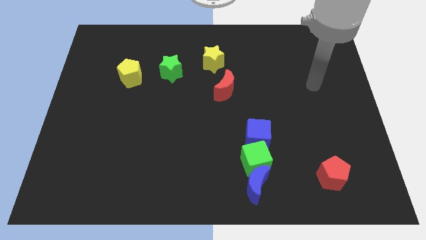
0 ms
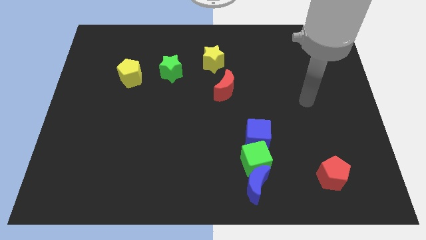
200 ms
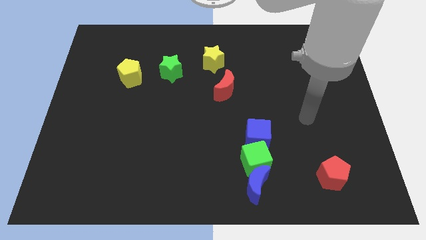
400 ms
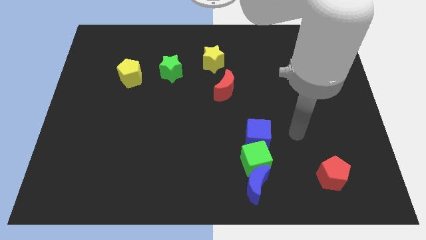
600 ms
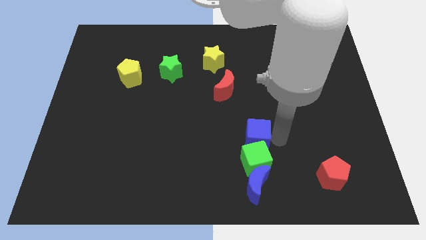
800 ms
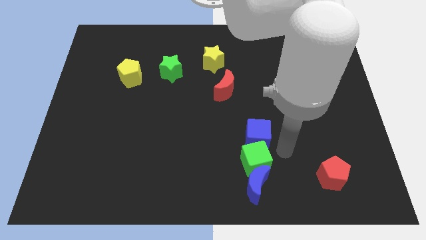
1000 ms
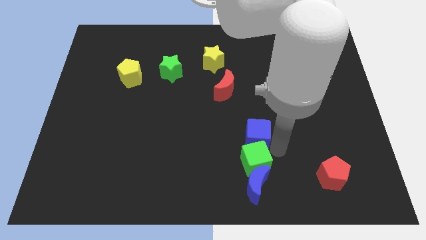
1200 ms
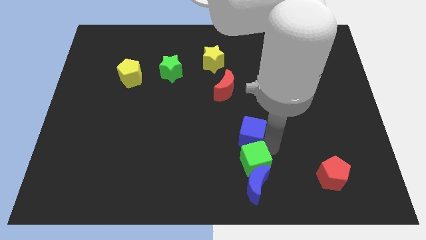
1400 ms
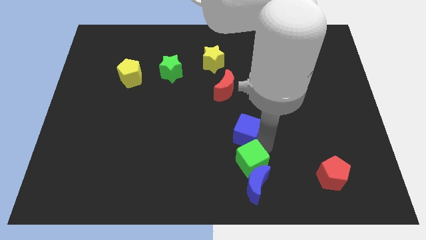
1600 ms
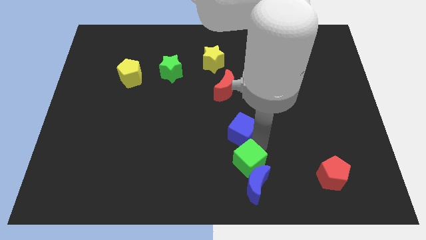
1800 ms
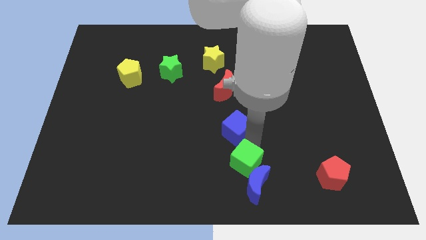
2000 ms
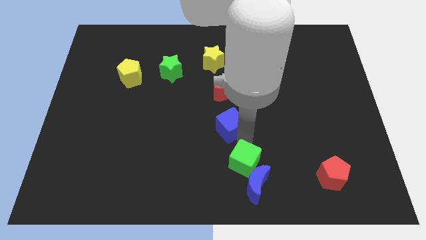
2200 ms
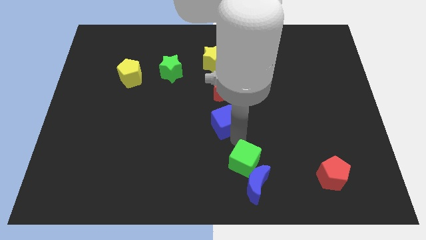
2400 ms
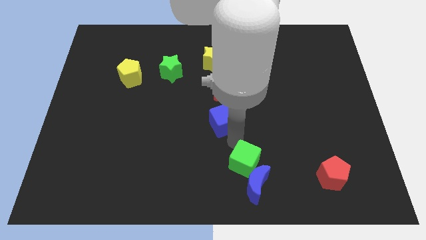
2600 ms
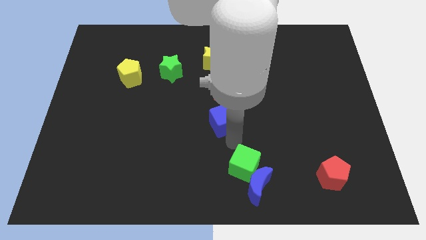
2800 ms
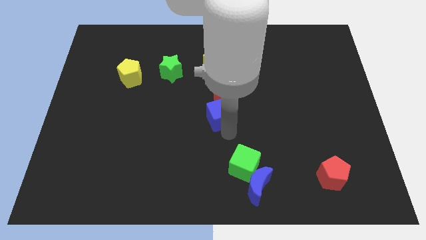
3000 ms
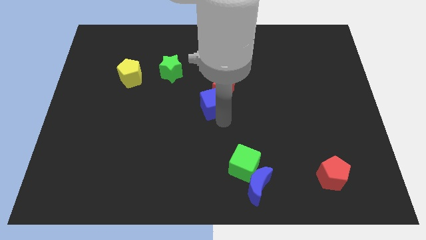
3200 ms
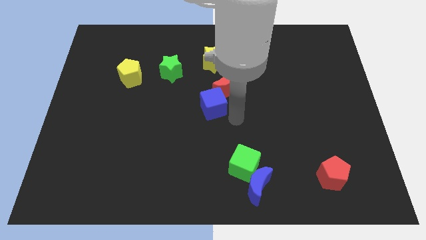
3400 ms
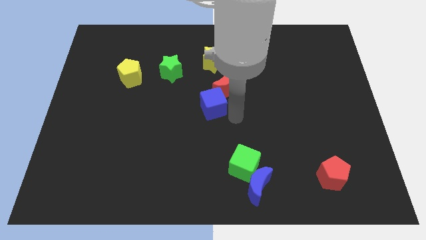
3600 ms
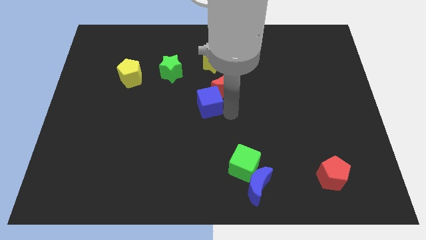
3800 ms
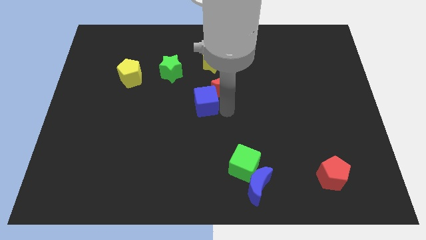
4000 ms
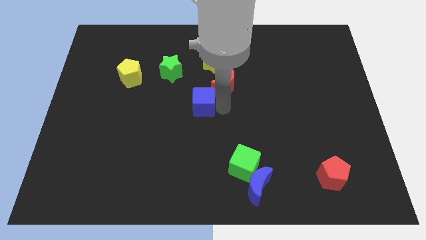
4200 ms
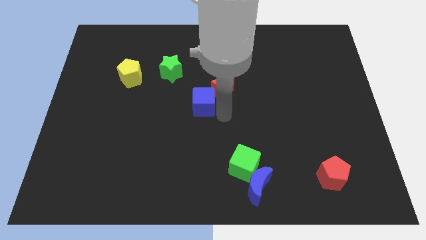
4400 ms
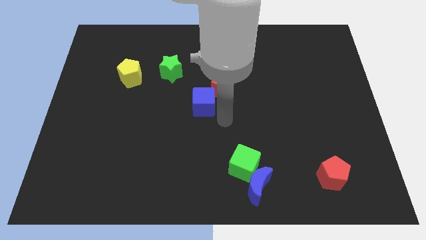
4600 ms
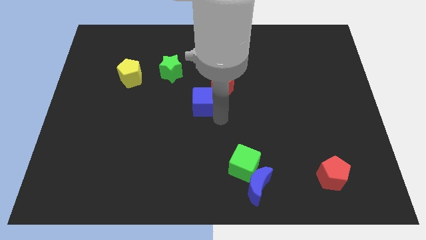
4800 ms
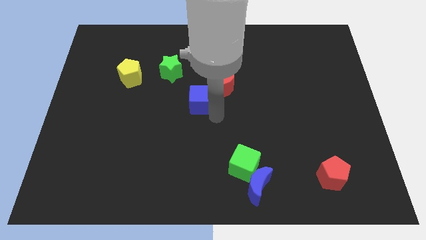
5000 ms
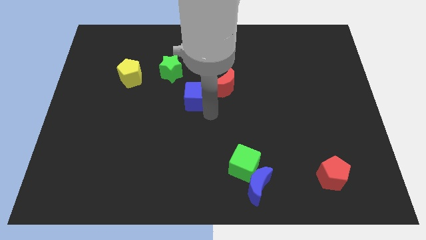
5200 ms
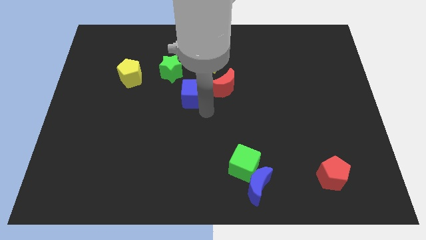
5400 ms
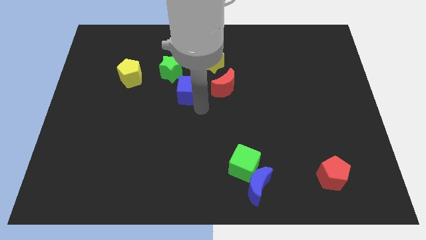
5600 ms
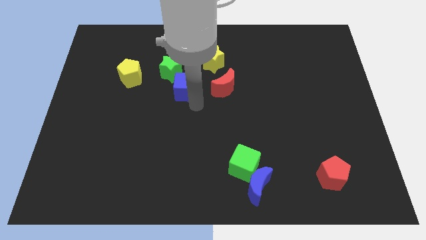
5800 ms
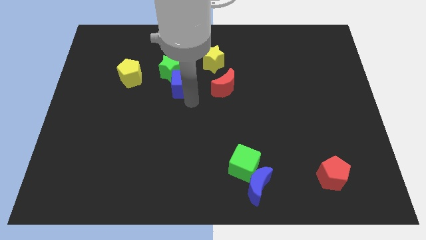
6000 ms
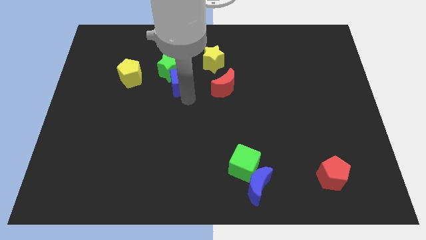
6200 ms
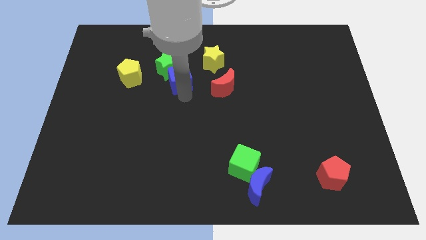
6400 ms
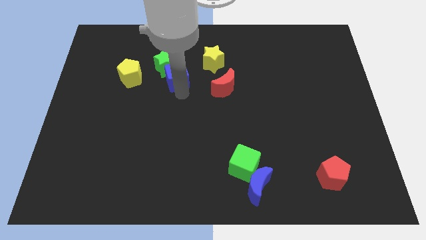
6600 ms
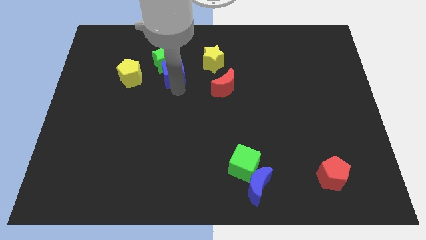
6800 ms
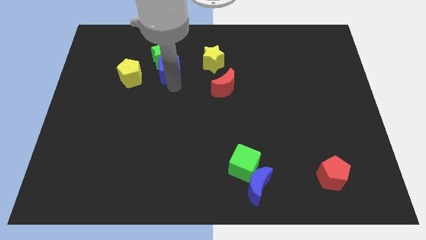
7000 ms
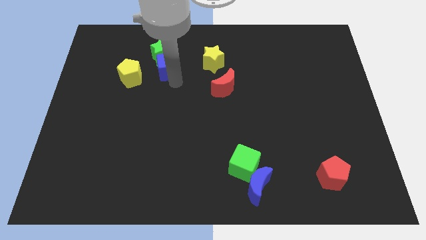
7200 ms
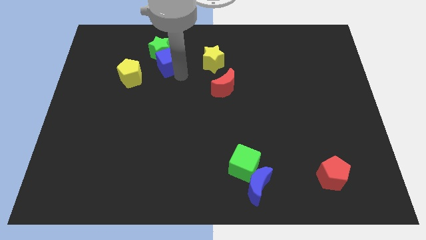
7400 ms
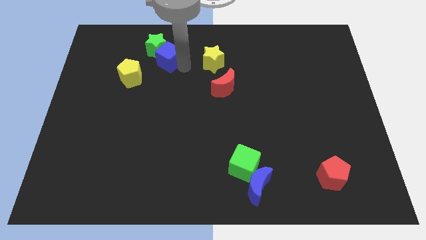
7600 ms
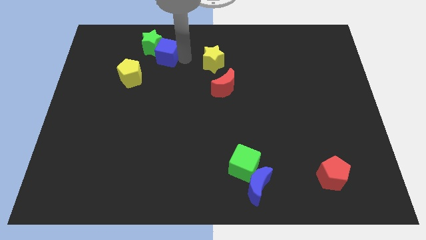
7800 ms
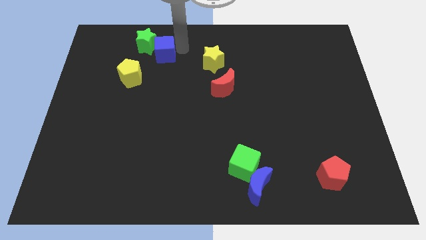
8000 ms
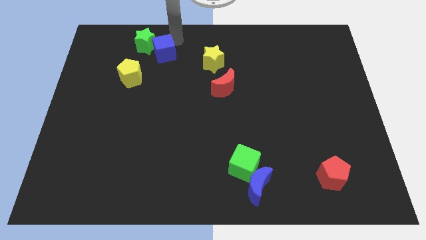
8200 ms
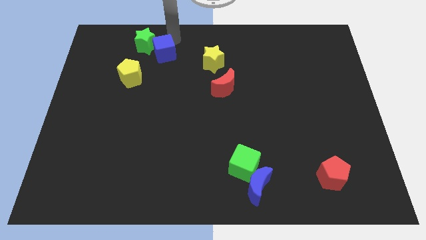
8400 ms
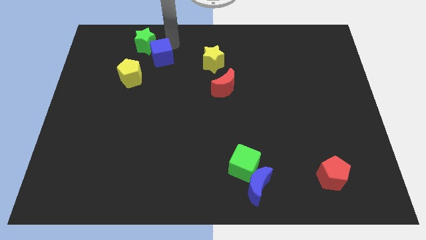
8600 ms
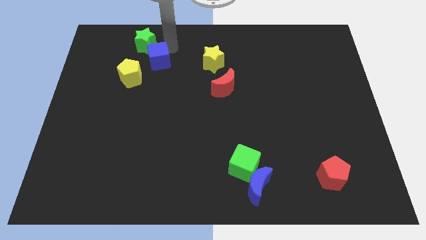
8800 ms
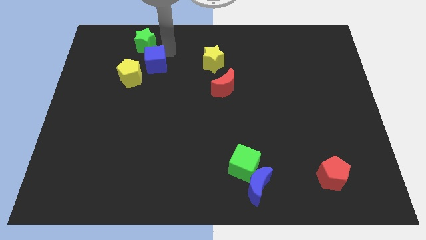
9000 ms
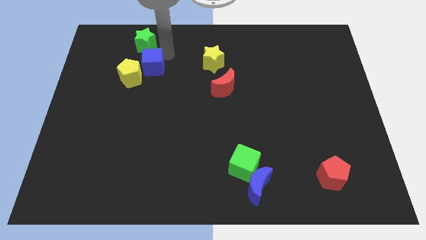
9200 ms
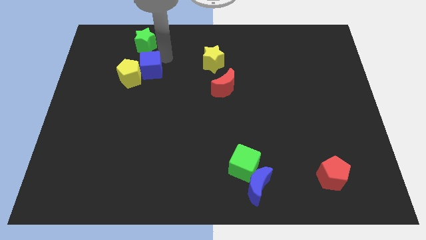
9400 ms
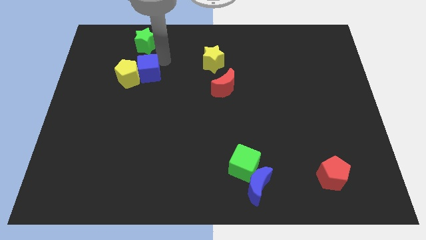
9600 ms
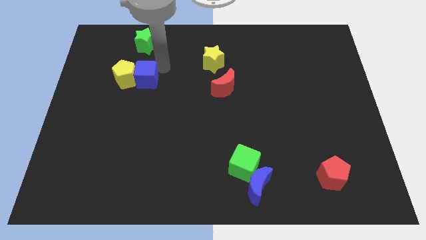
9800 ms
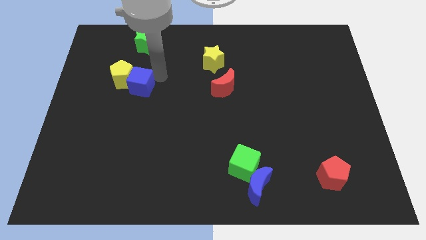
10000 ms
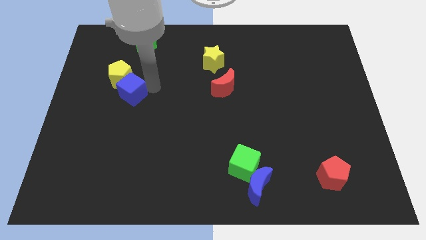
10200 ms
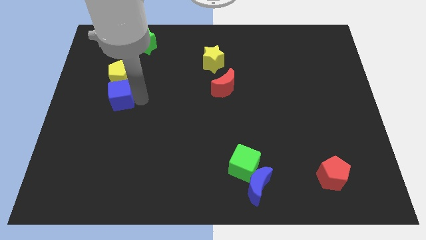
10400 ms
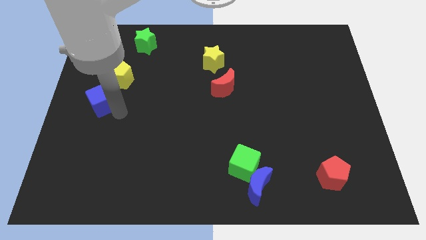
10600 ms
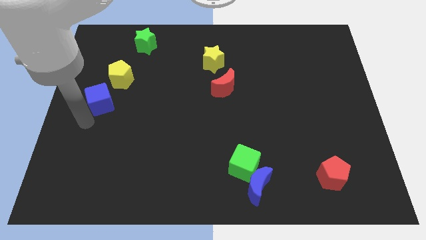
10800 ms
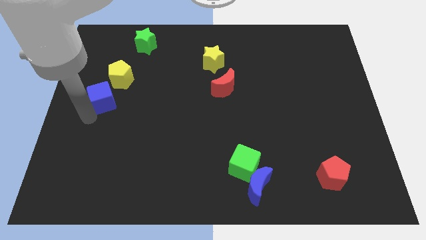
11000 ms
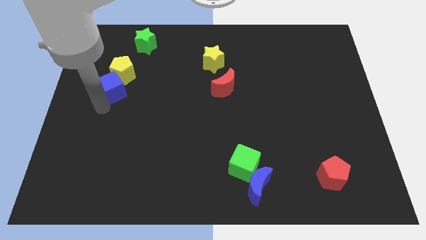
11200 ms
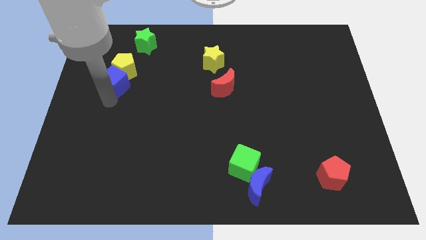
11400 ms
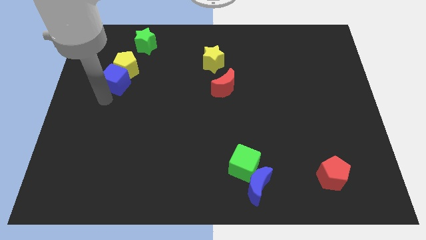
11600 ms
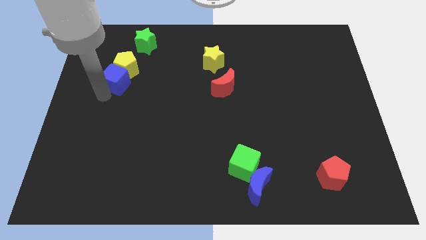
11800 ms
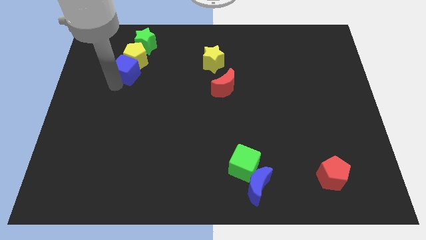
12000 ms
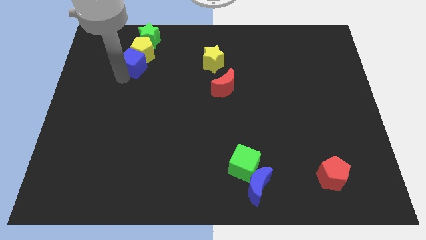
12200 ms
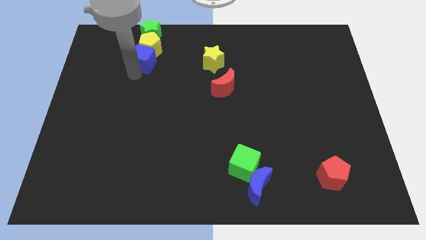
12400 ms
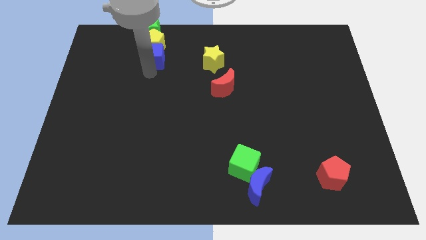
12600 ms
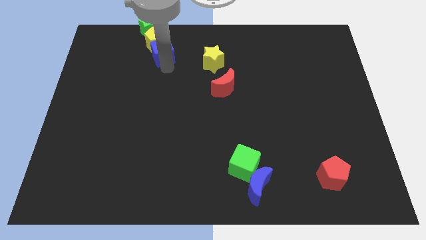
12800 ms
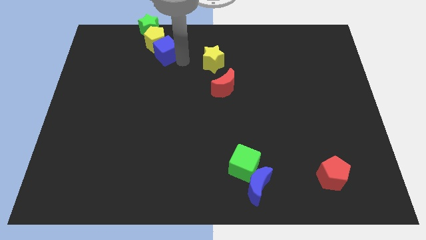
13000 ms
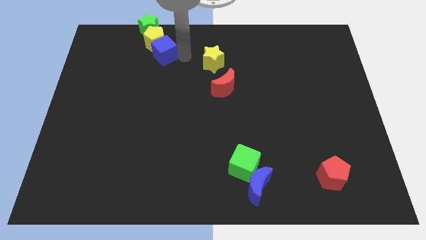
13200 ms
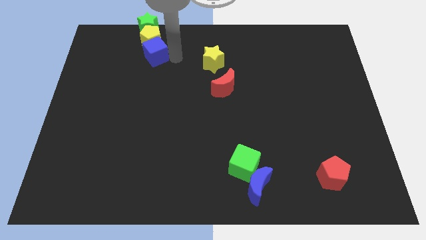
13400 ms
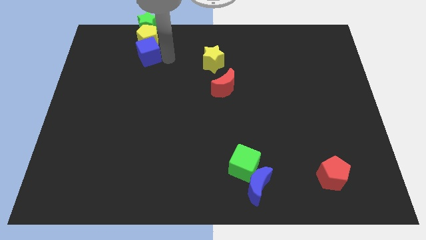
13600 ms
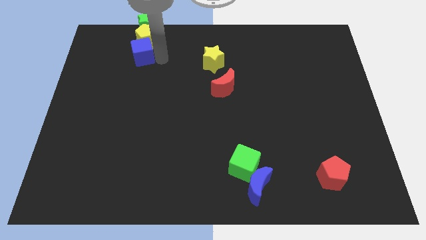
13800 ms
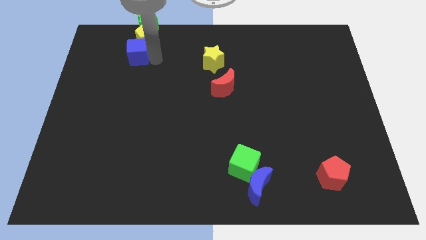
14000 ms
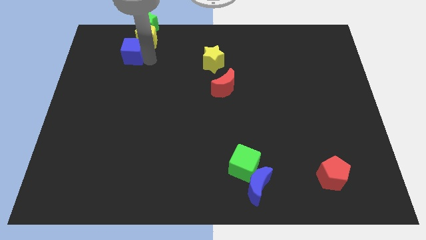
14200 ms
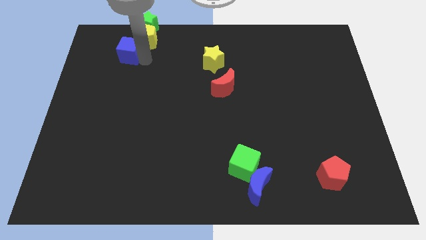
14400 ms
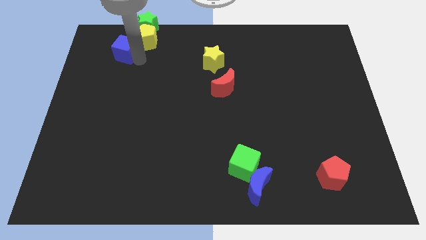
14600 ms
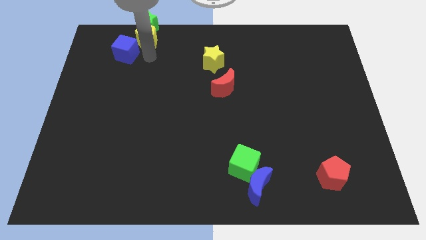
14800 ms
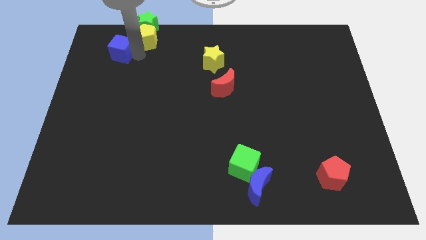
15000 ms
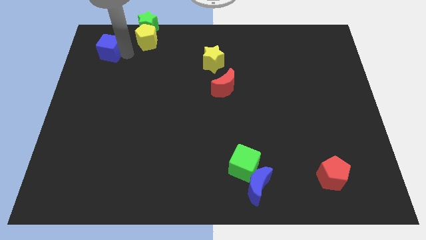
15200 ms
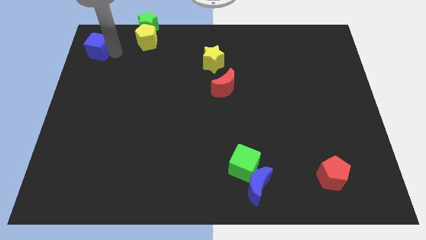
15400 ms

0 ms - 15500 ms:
slide the blue cube to the top left corner
